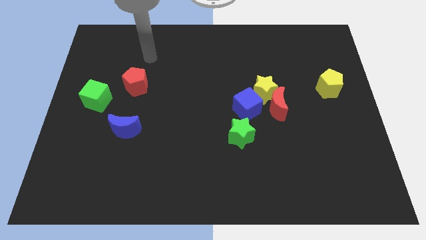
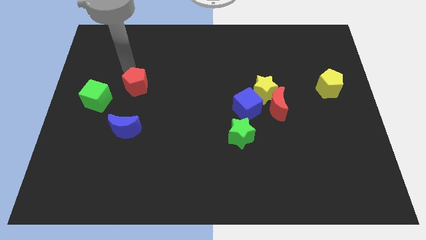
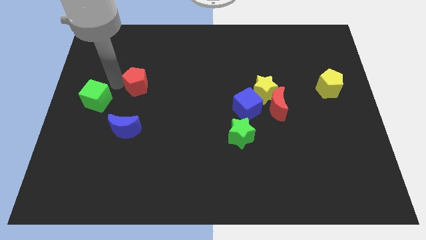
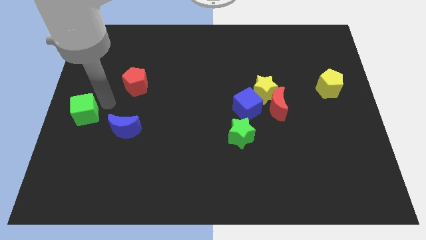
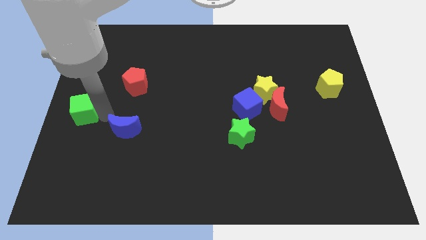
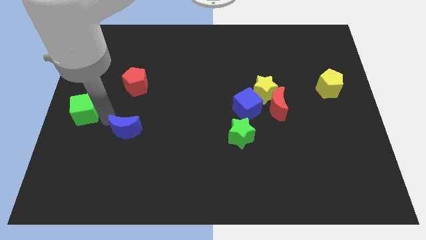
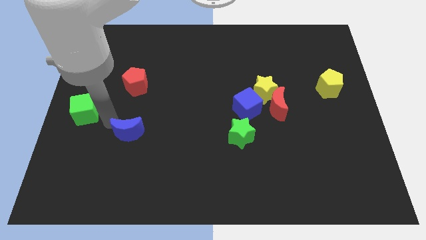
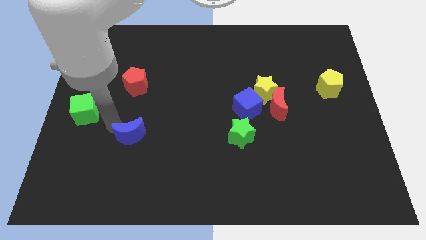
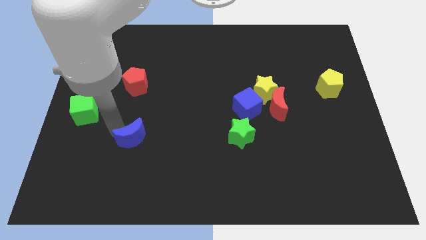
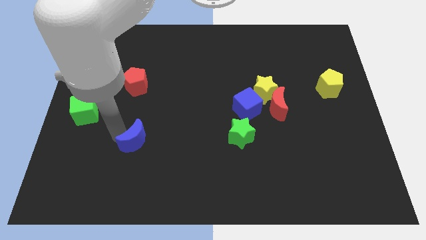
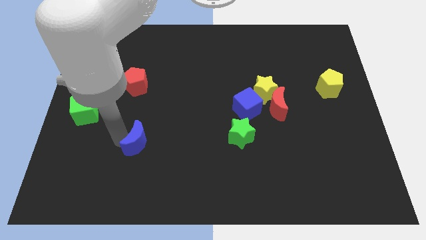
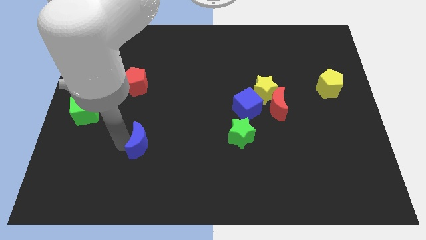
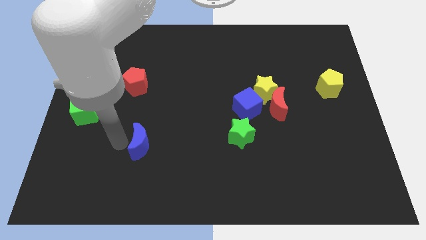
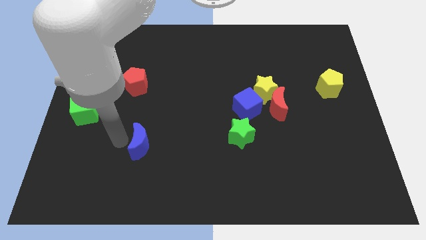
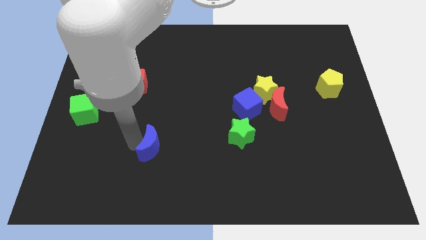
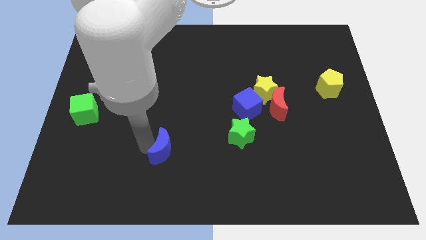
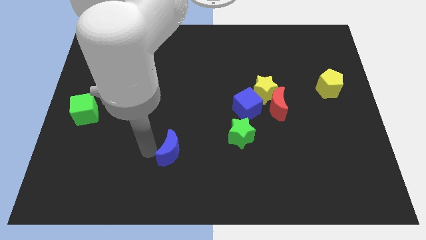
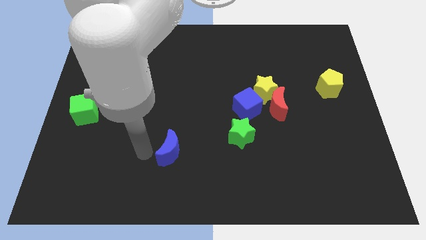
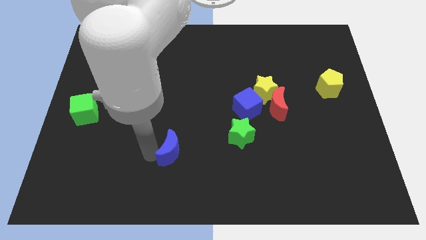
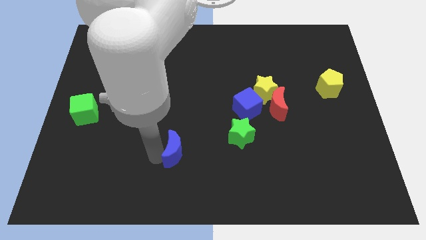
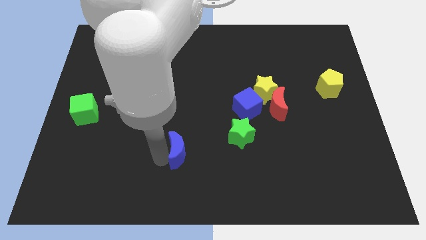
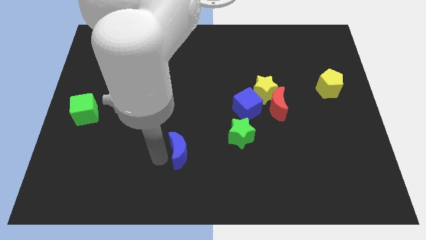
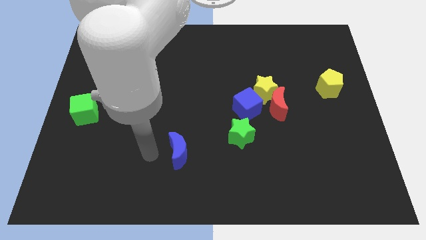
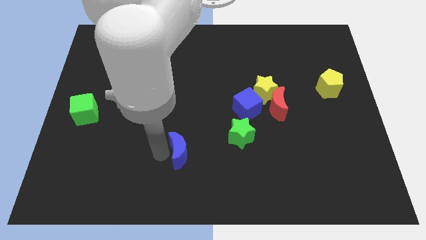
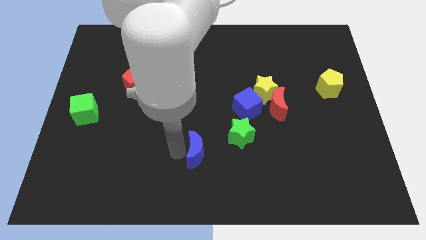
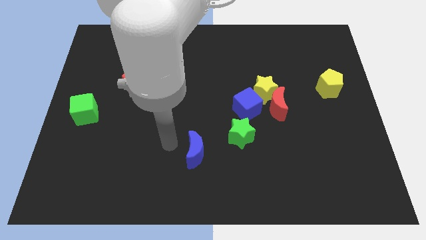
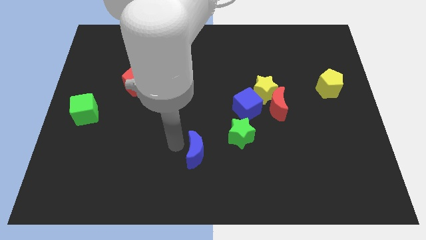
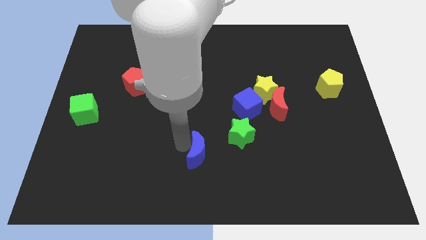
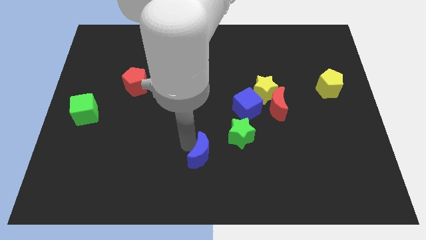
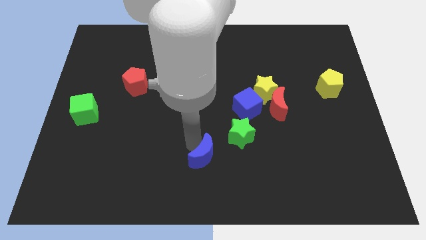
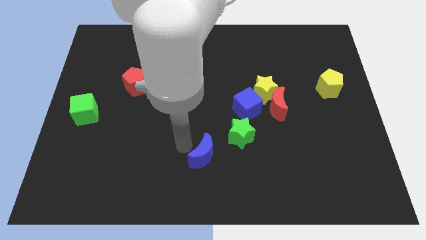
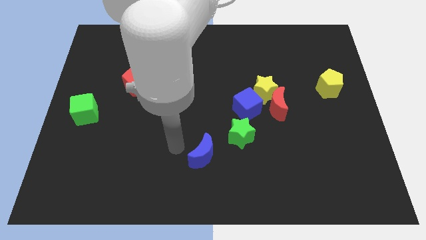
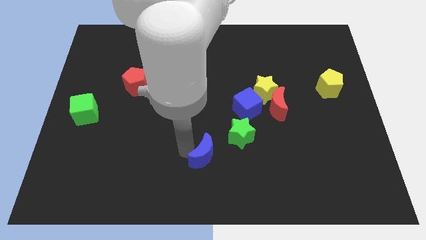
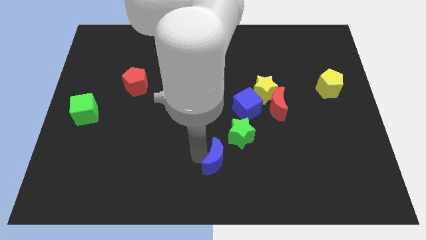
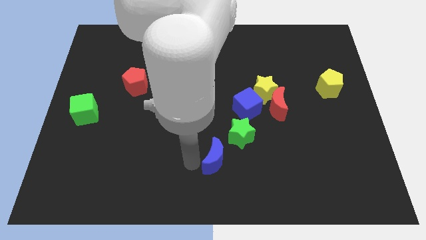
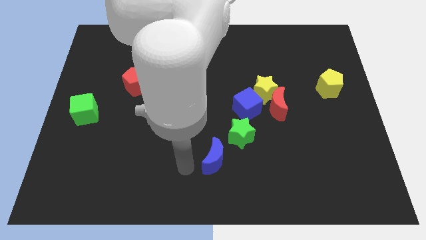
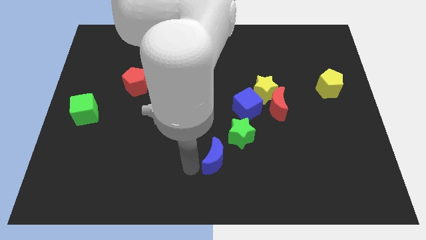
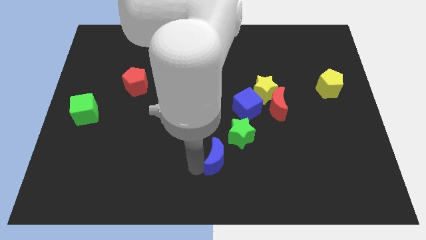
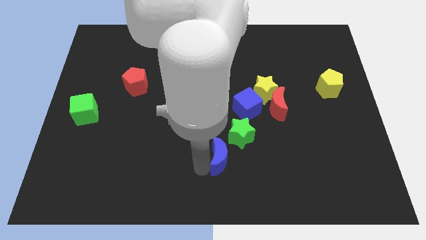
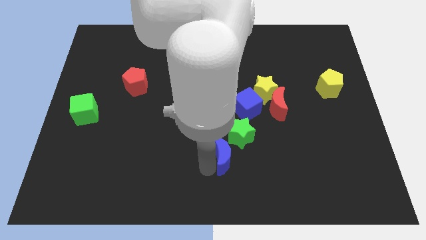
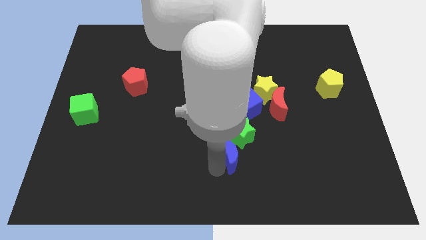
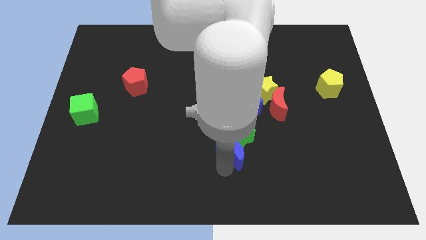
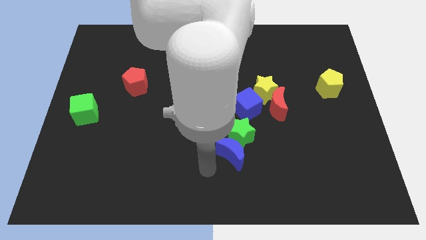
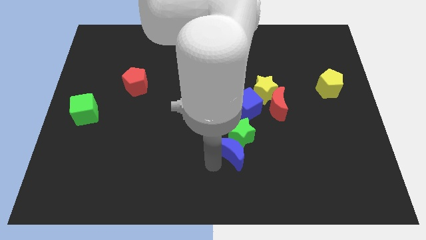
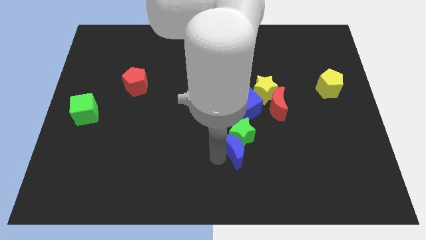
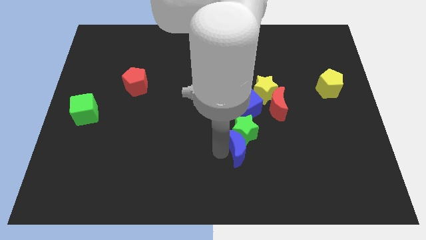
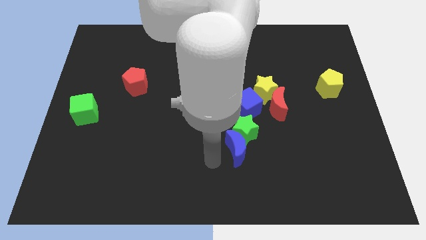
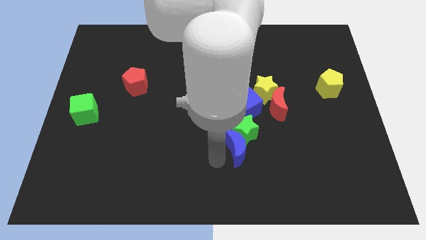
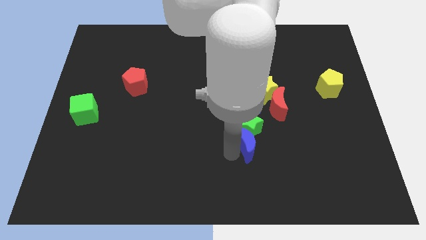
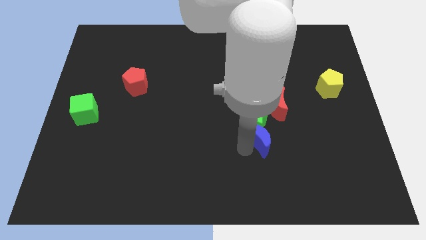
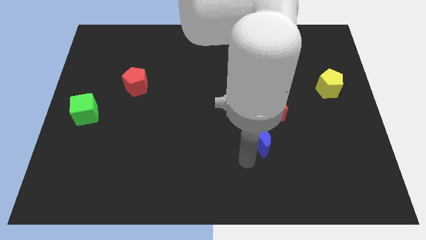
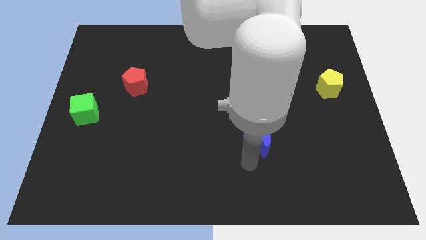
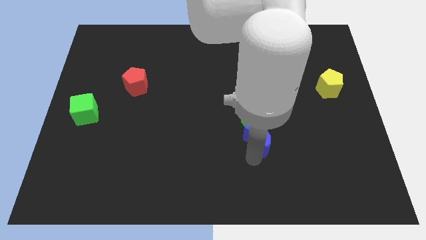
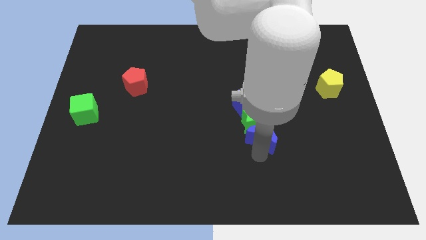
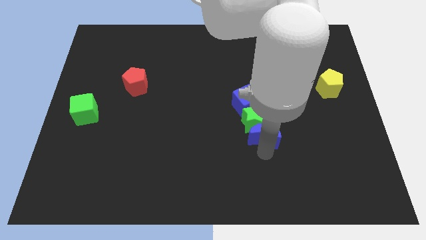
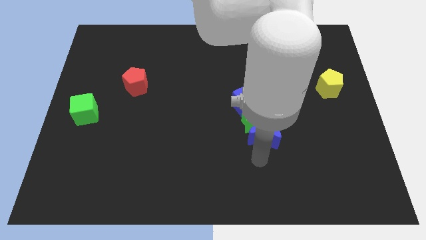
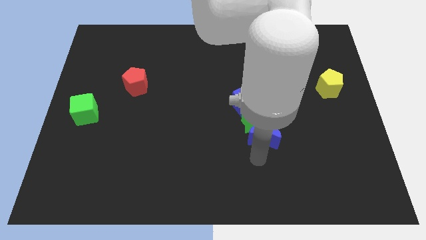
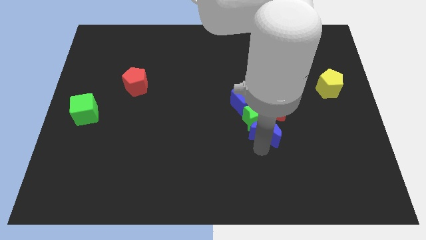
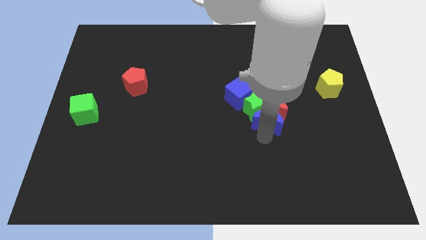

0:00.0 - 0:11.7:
slide the blue moon next to the red moon

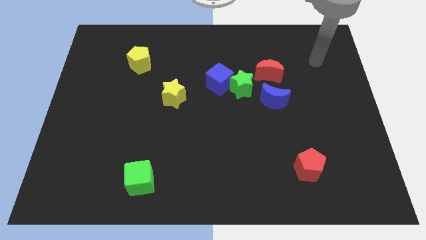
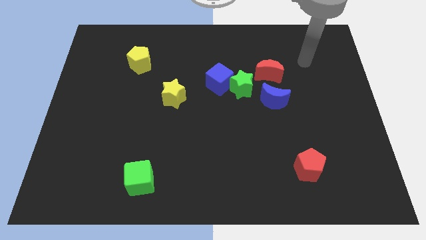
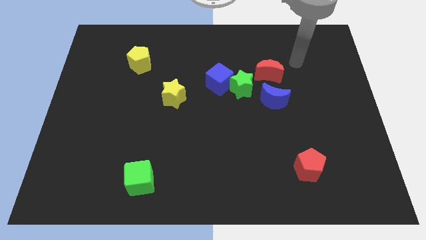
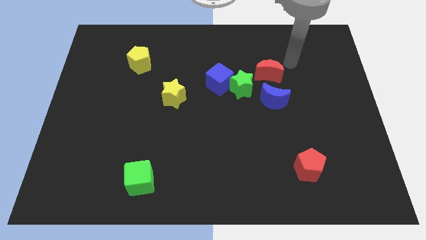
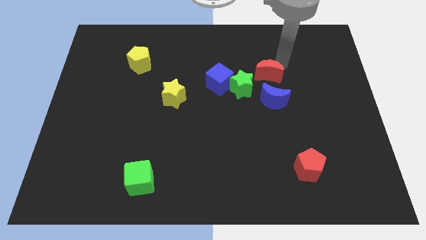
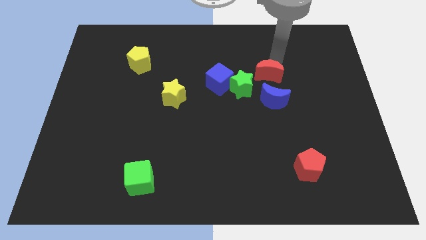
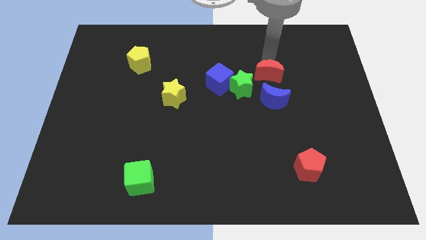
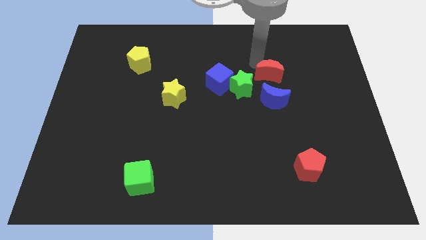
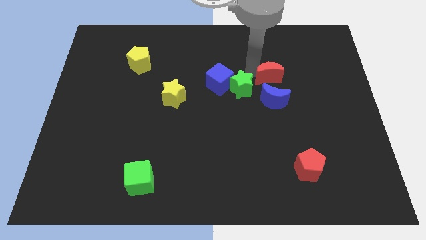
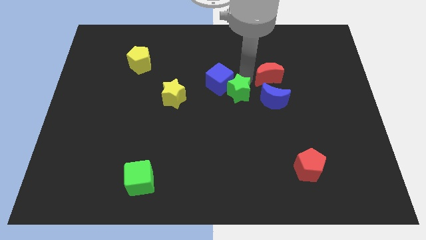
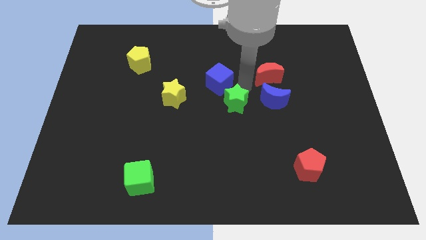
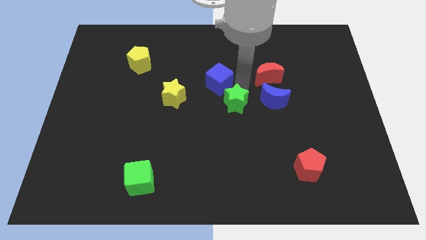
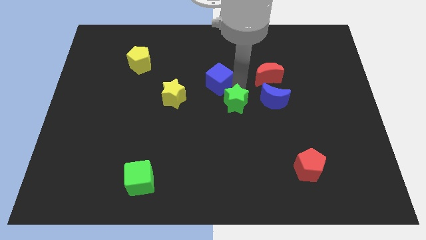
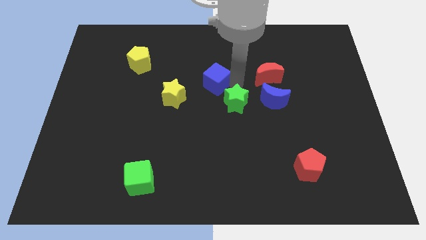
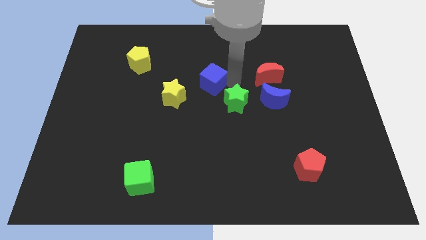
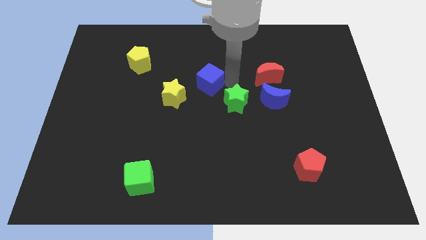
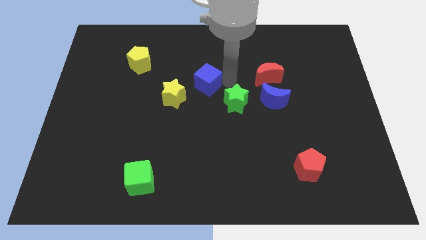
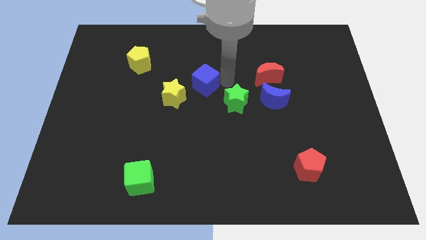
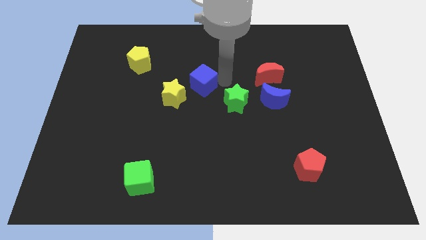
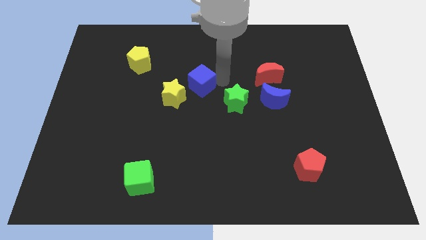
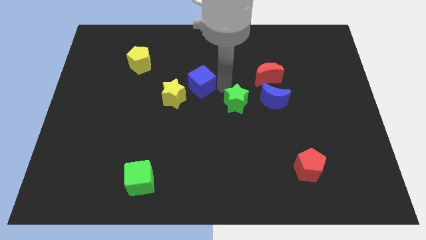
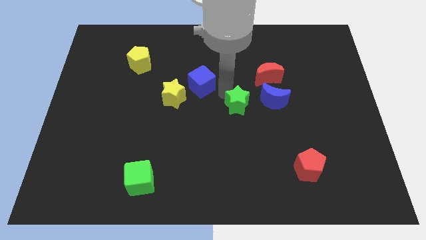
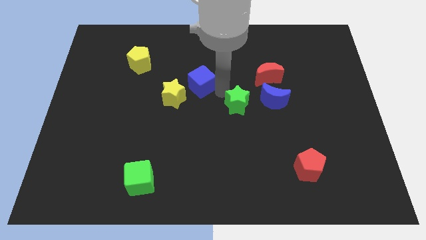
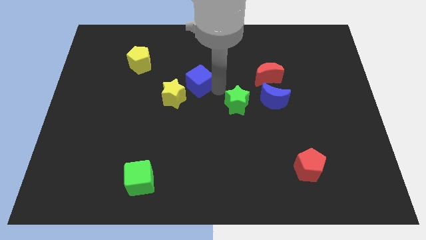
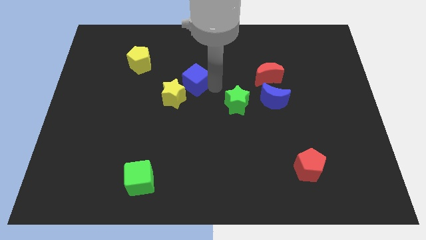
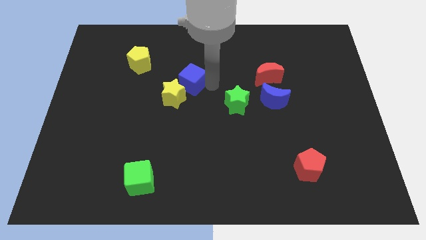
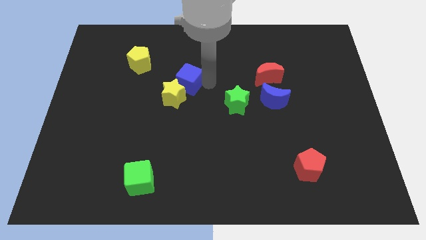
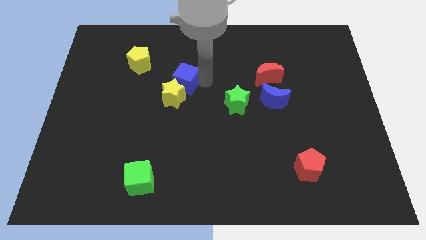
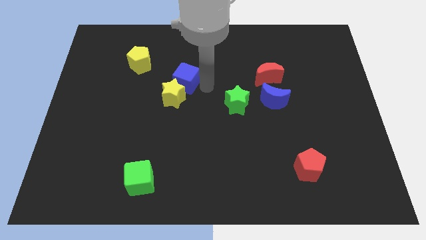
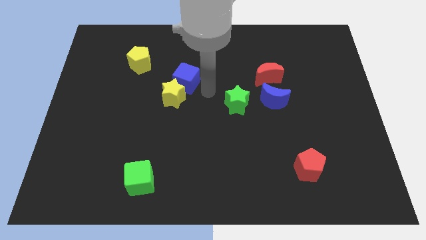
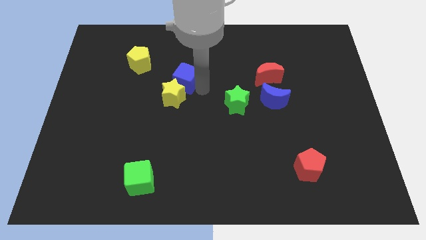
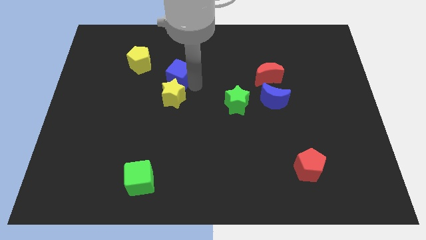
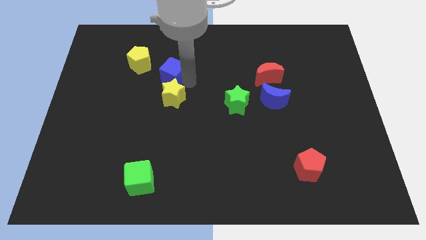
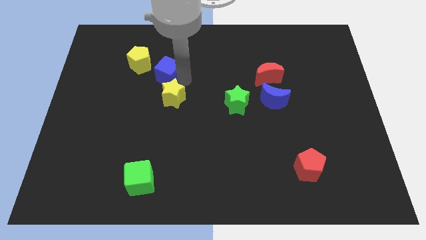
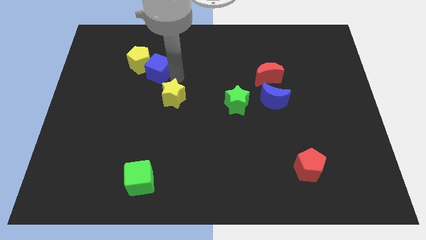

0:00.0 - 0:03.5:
put the blue cube towards the yellow pentagon
